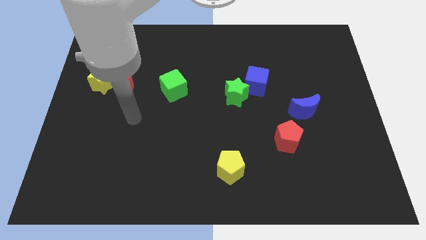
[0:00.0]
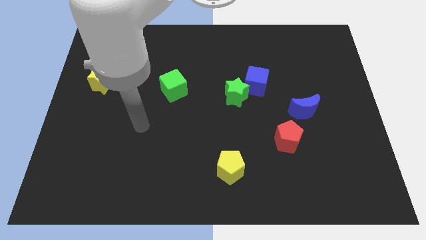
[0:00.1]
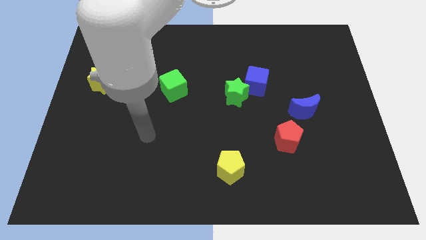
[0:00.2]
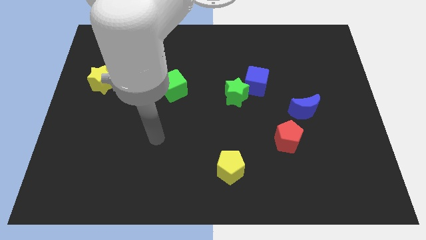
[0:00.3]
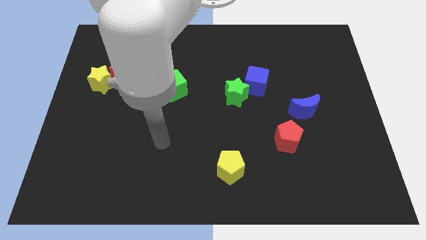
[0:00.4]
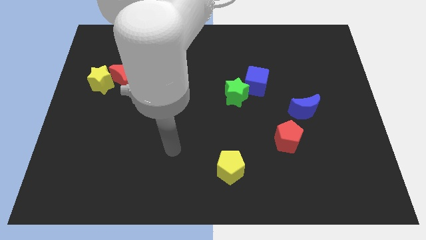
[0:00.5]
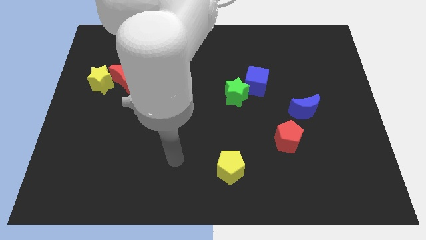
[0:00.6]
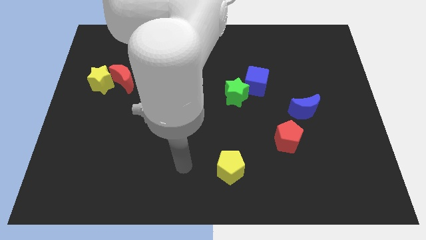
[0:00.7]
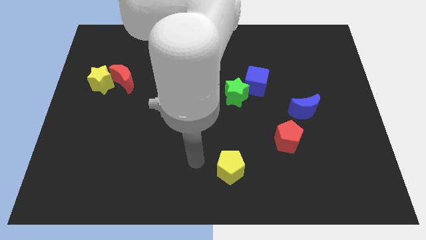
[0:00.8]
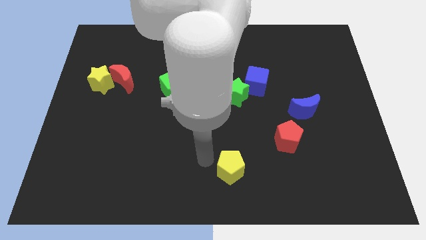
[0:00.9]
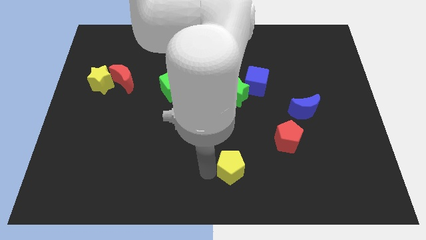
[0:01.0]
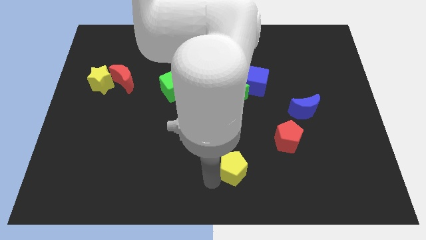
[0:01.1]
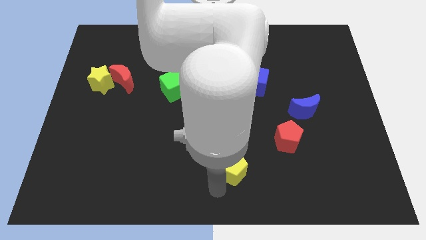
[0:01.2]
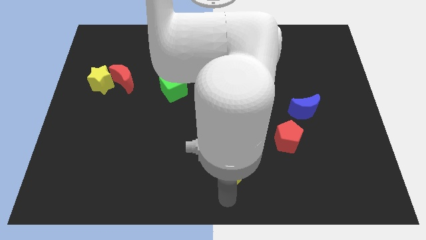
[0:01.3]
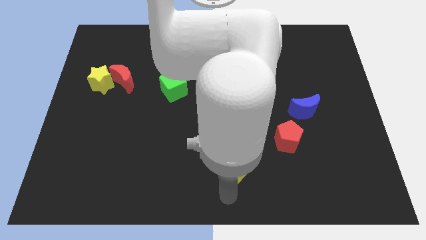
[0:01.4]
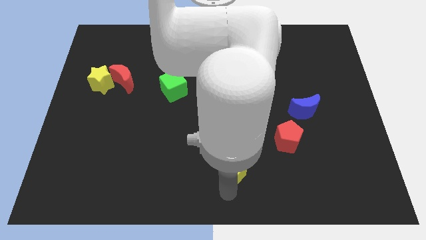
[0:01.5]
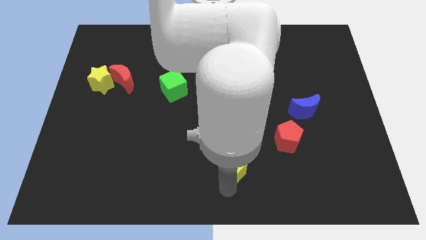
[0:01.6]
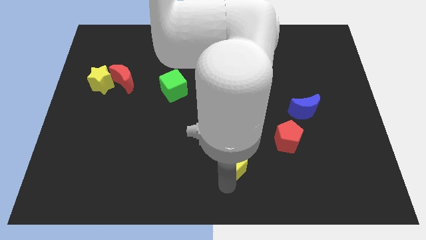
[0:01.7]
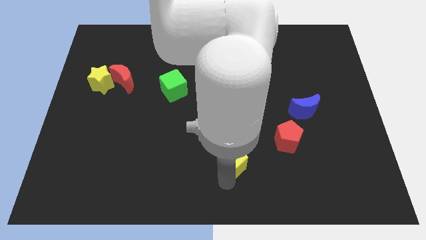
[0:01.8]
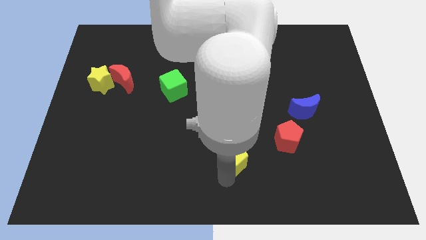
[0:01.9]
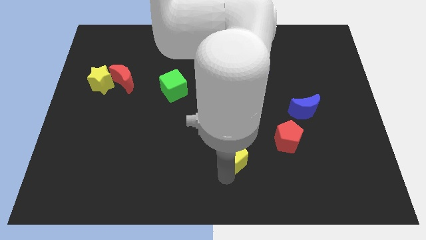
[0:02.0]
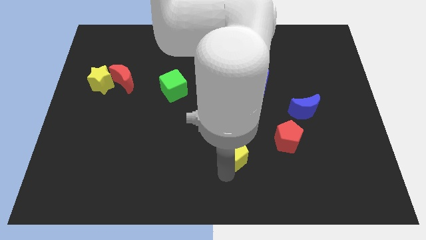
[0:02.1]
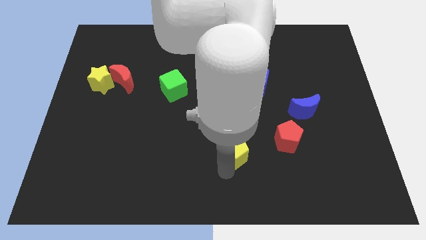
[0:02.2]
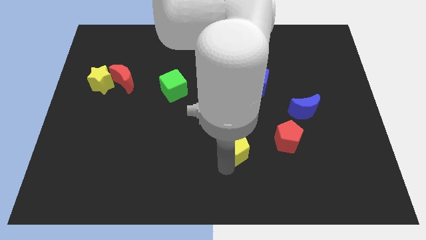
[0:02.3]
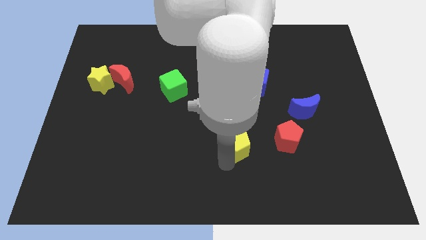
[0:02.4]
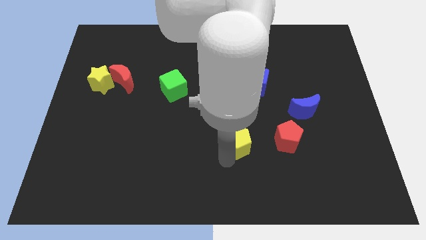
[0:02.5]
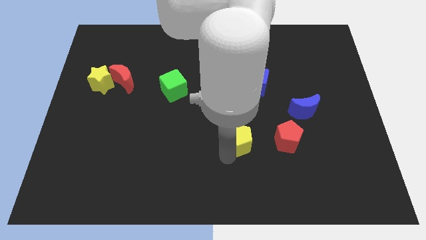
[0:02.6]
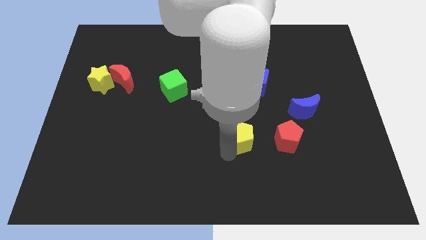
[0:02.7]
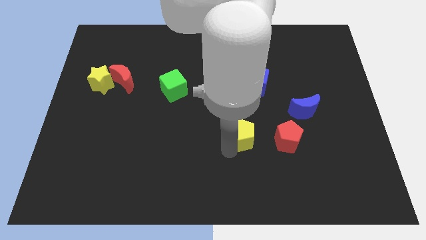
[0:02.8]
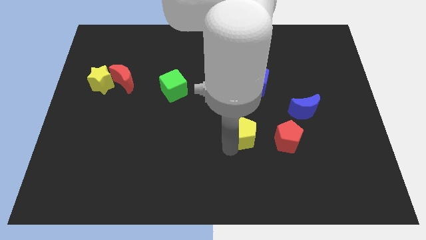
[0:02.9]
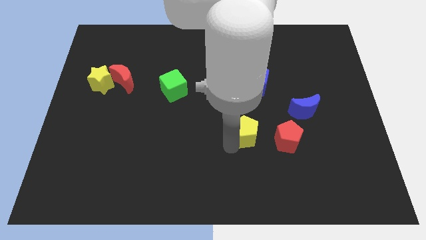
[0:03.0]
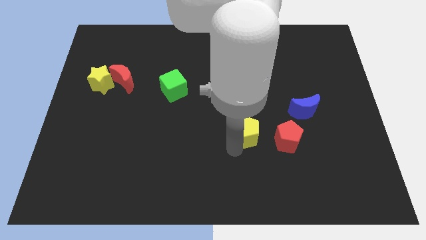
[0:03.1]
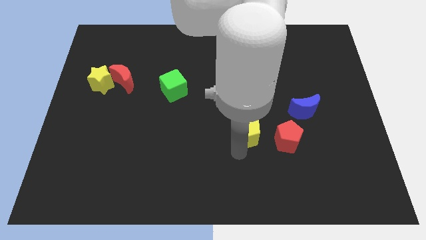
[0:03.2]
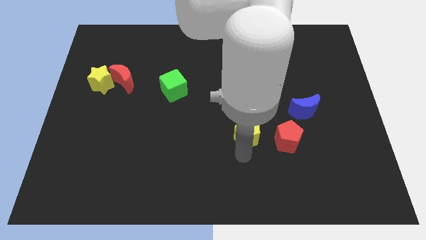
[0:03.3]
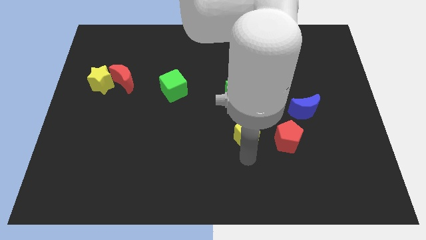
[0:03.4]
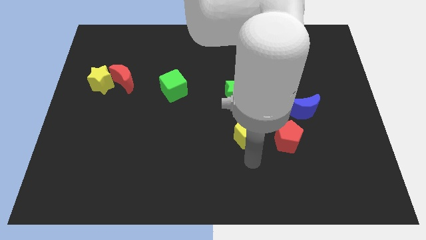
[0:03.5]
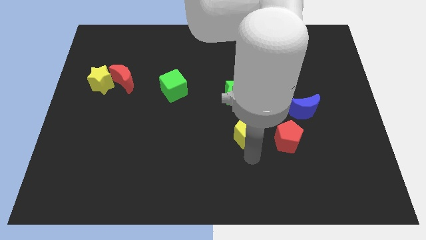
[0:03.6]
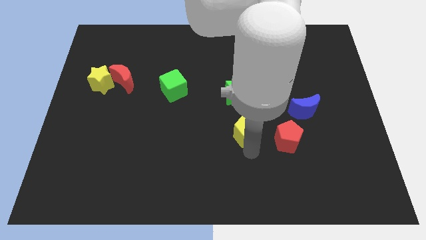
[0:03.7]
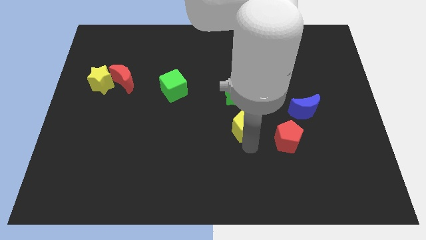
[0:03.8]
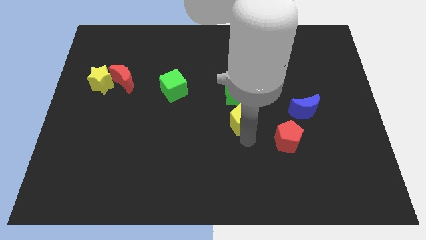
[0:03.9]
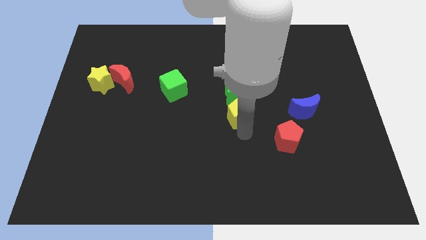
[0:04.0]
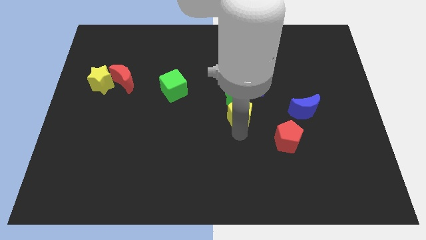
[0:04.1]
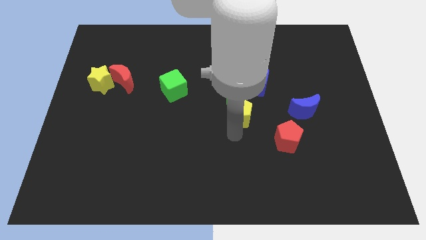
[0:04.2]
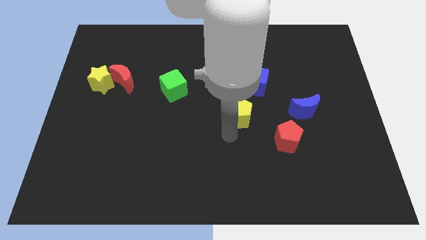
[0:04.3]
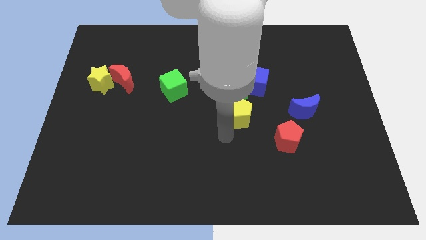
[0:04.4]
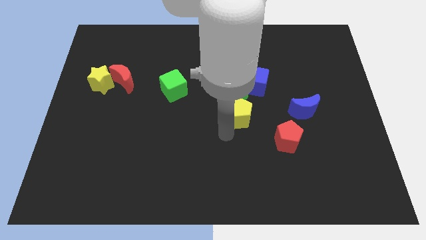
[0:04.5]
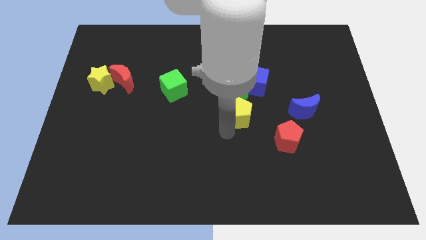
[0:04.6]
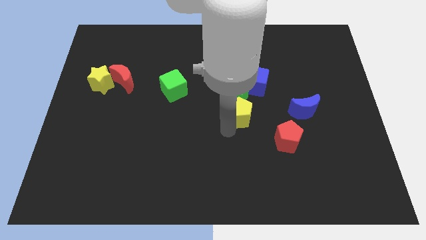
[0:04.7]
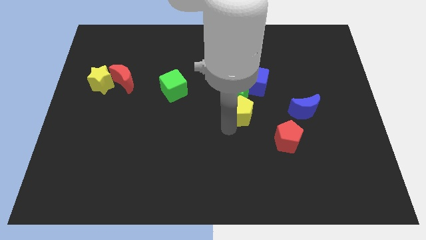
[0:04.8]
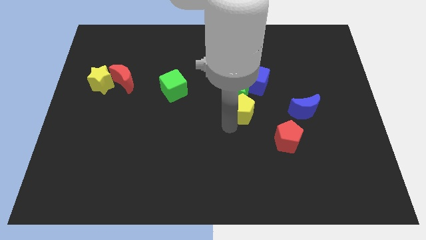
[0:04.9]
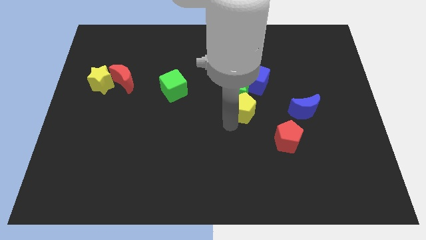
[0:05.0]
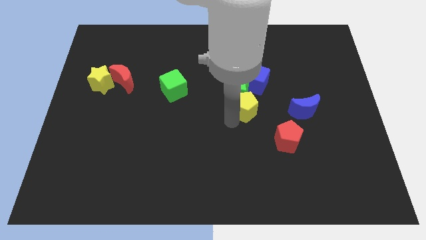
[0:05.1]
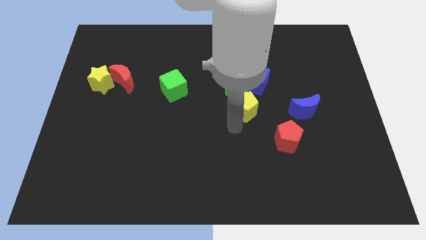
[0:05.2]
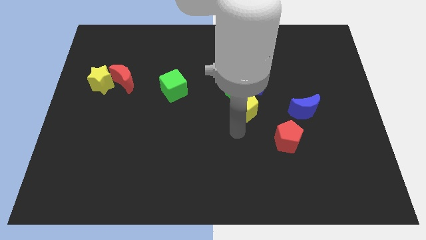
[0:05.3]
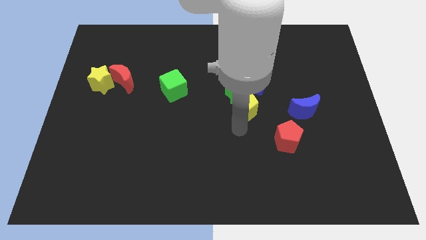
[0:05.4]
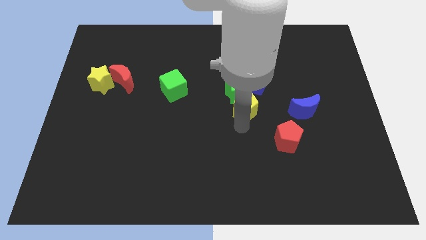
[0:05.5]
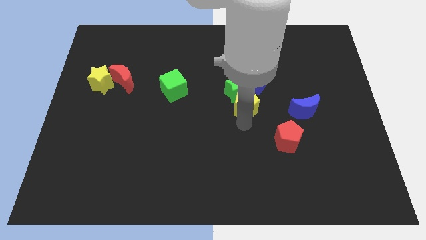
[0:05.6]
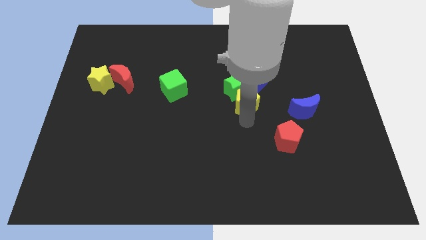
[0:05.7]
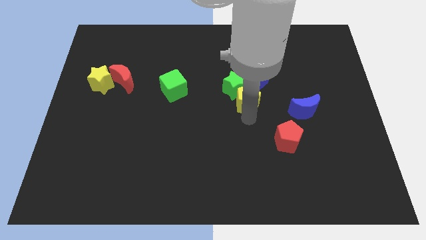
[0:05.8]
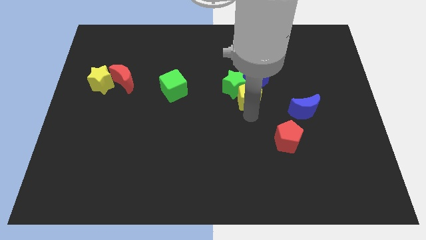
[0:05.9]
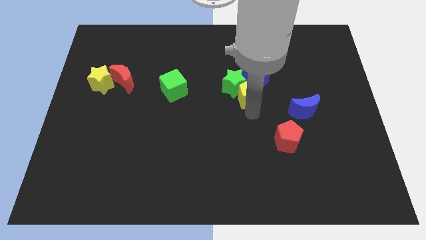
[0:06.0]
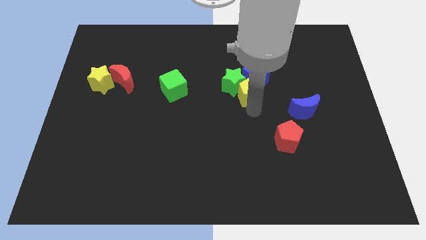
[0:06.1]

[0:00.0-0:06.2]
push the yellow pentagon close to the blue cube

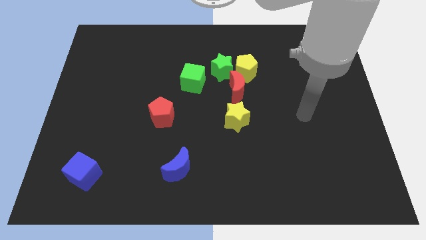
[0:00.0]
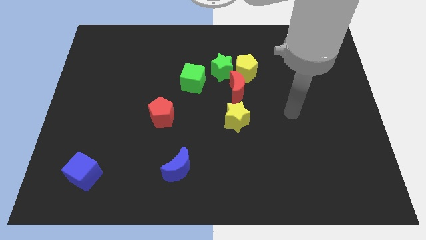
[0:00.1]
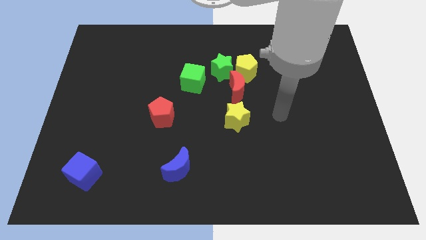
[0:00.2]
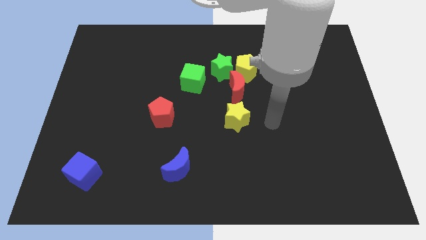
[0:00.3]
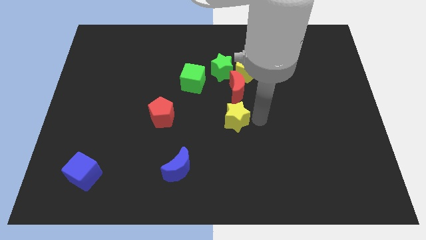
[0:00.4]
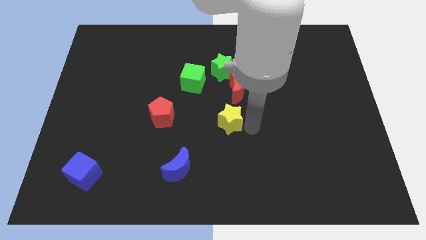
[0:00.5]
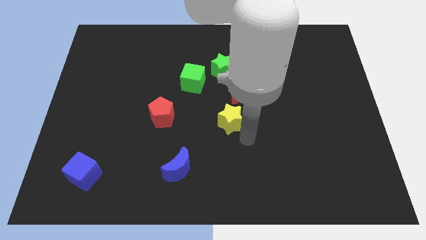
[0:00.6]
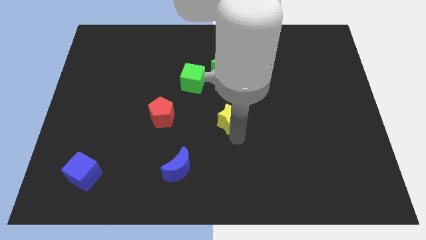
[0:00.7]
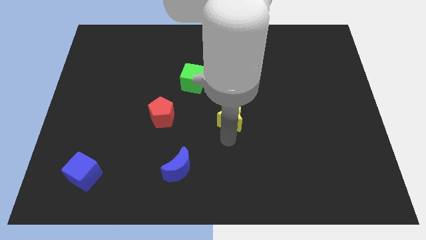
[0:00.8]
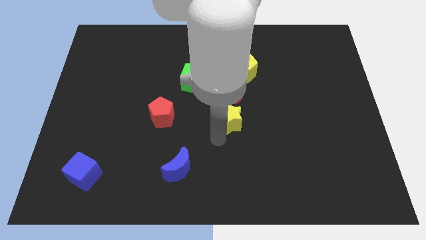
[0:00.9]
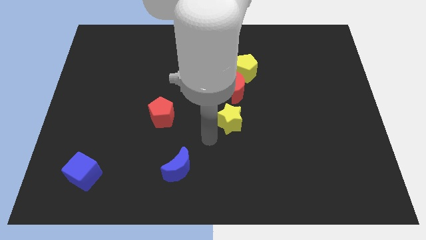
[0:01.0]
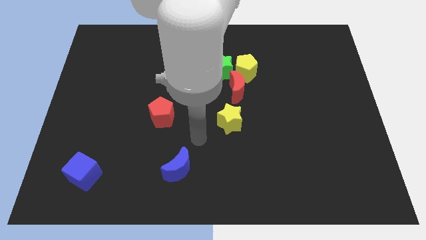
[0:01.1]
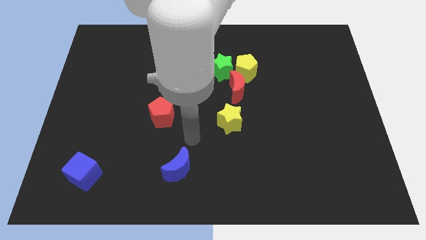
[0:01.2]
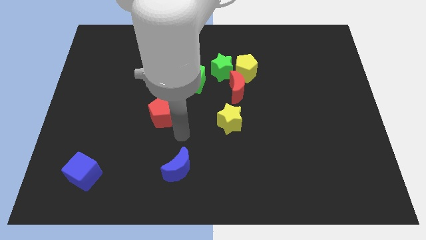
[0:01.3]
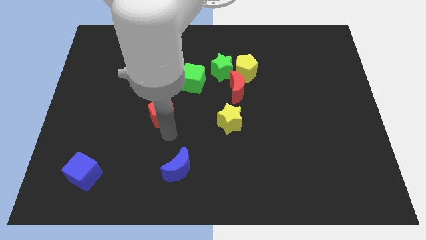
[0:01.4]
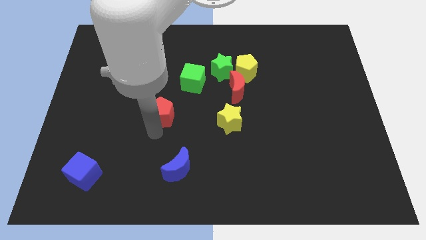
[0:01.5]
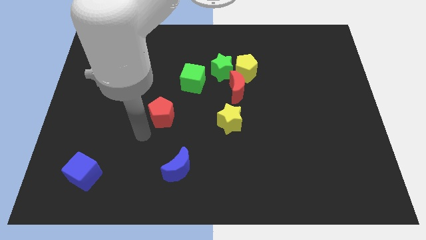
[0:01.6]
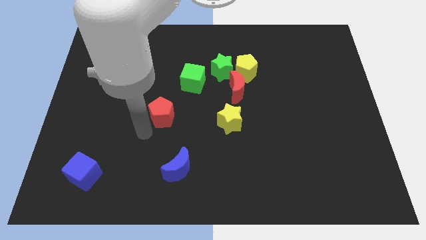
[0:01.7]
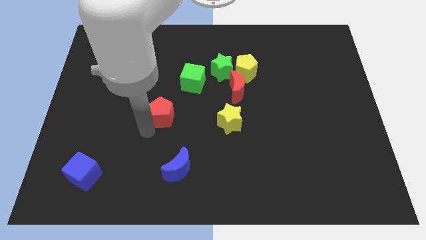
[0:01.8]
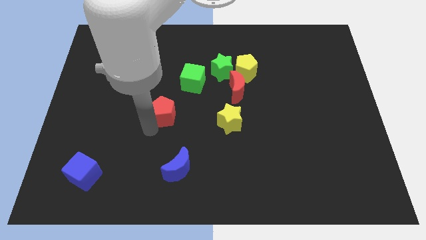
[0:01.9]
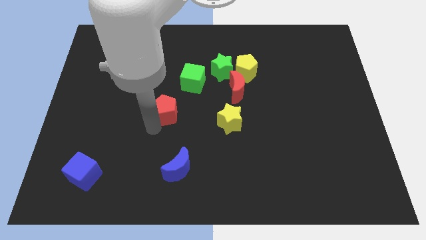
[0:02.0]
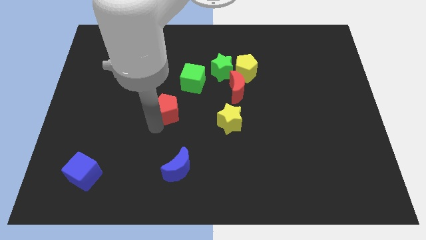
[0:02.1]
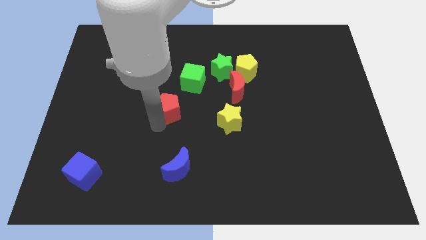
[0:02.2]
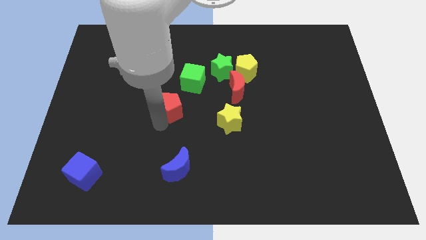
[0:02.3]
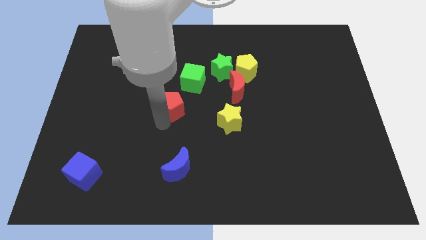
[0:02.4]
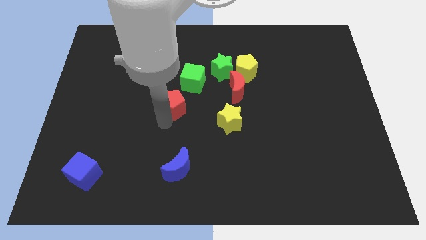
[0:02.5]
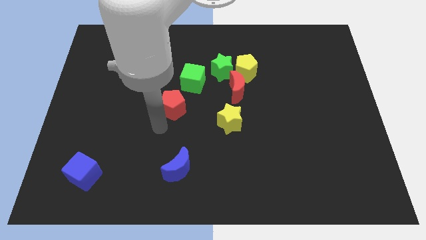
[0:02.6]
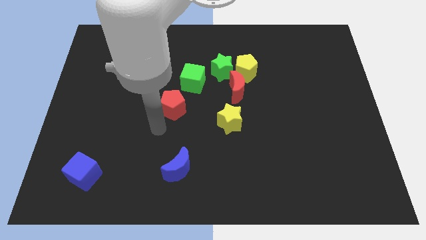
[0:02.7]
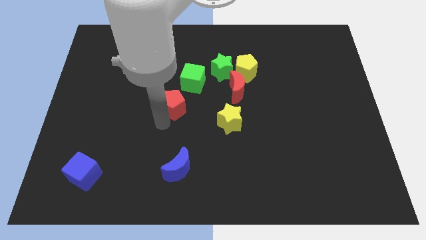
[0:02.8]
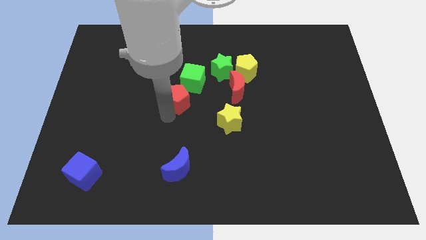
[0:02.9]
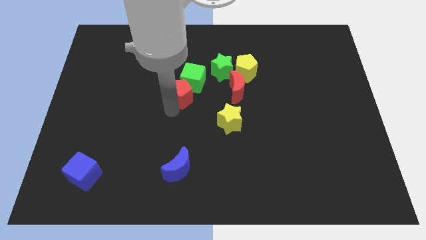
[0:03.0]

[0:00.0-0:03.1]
slide the red pentagon close to the green cube
